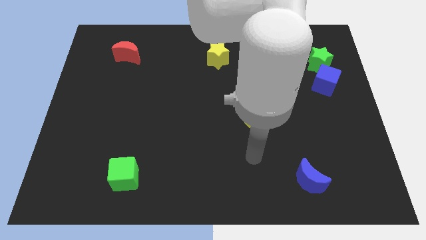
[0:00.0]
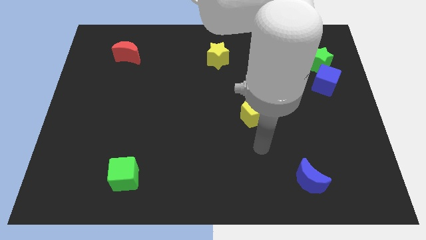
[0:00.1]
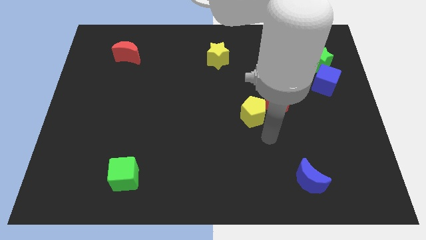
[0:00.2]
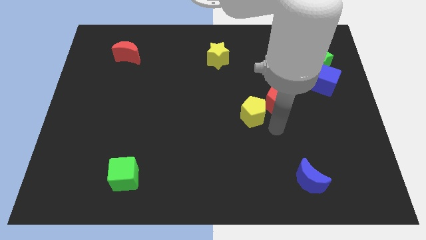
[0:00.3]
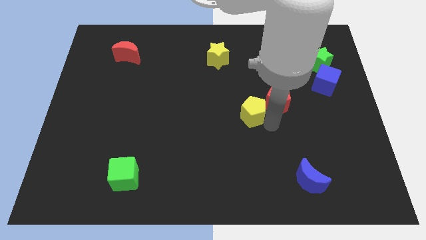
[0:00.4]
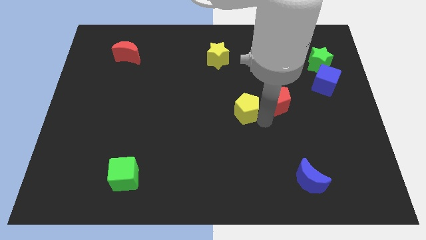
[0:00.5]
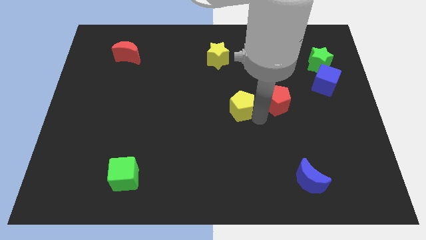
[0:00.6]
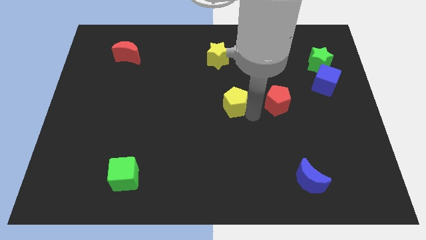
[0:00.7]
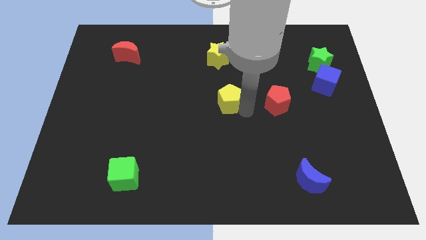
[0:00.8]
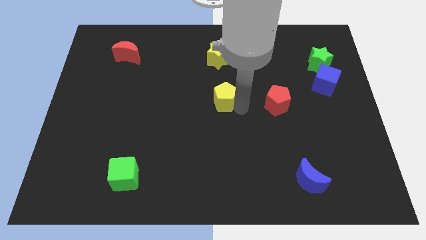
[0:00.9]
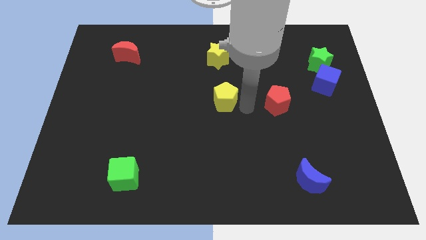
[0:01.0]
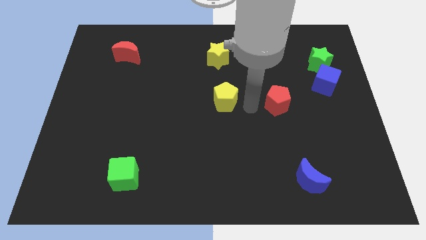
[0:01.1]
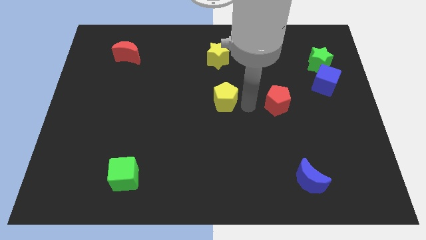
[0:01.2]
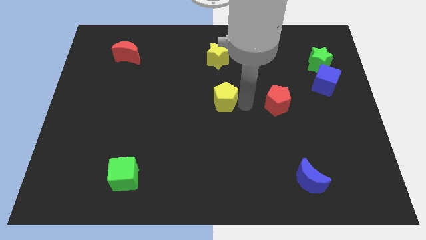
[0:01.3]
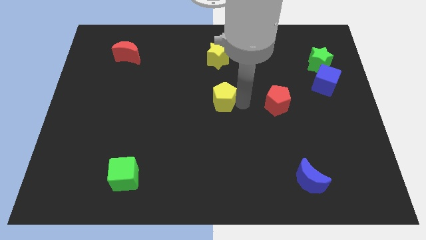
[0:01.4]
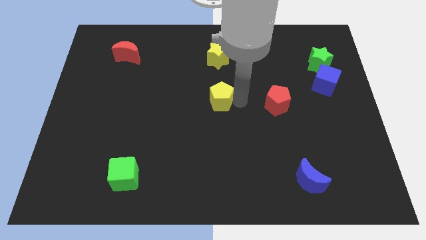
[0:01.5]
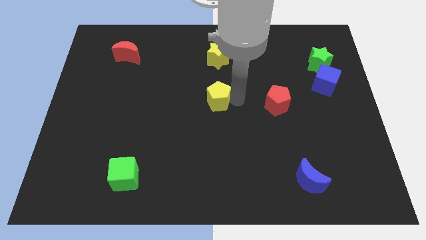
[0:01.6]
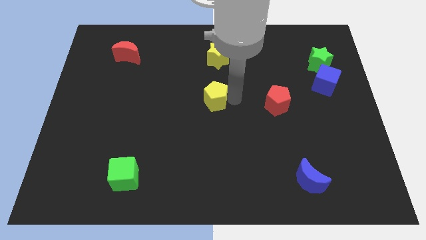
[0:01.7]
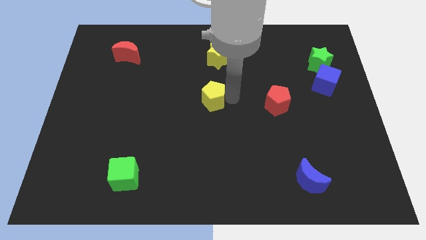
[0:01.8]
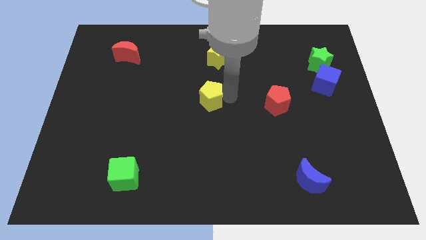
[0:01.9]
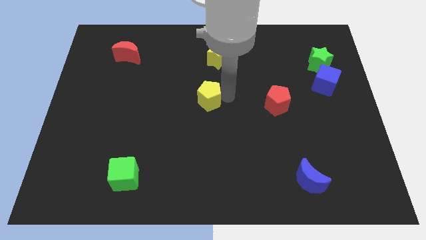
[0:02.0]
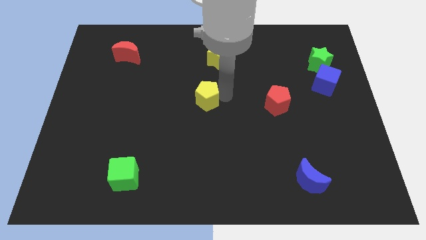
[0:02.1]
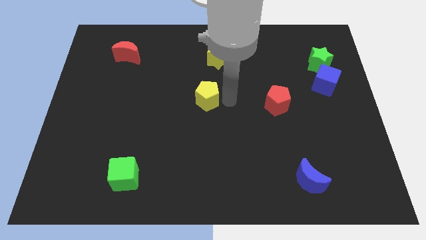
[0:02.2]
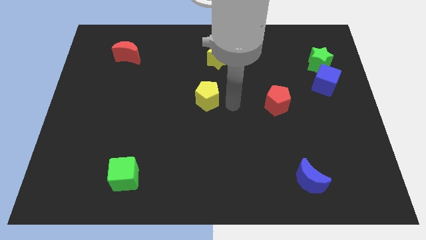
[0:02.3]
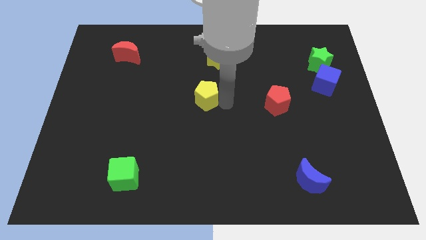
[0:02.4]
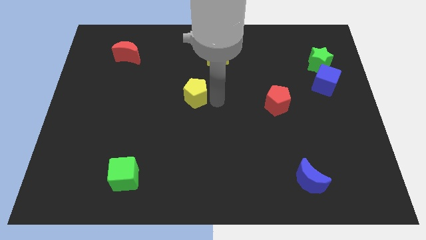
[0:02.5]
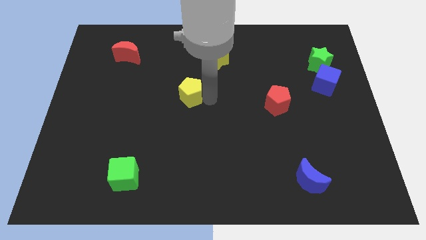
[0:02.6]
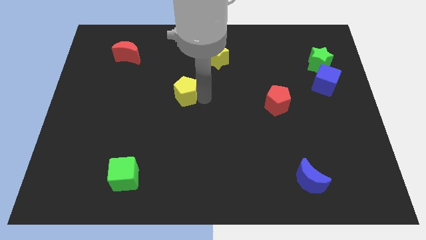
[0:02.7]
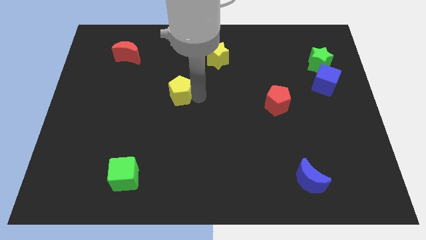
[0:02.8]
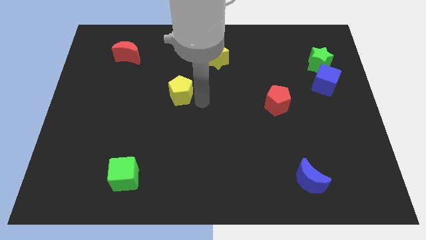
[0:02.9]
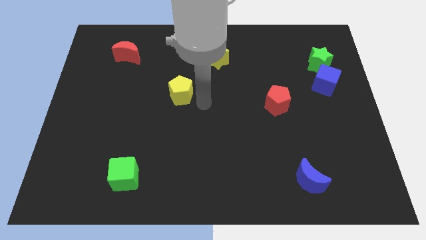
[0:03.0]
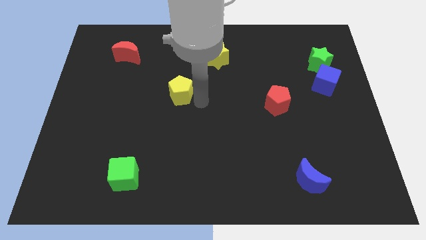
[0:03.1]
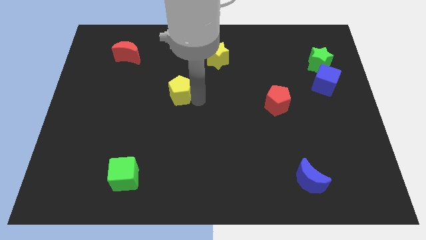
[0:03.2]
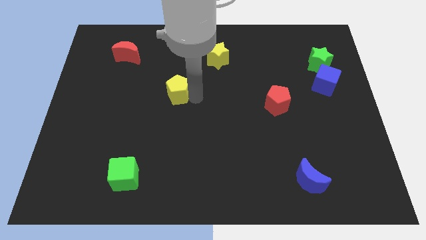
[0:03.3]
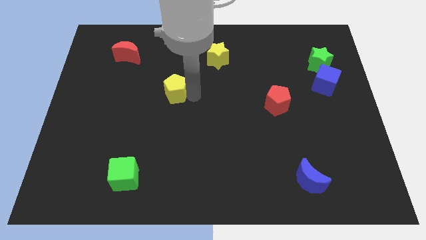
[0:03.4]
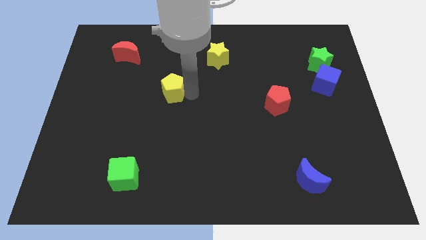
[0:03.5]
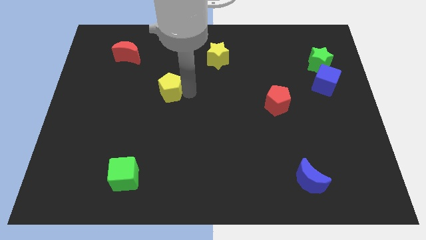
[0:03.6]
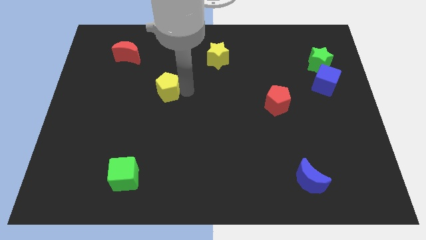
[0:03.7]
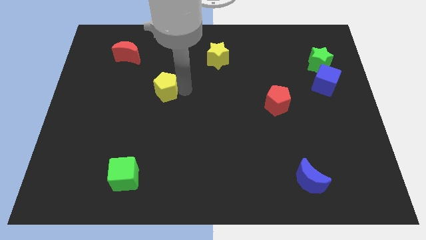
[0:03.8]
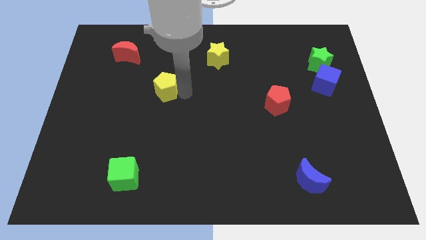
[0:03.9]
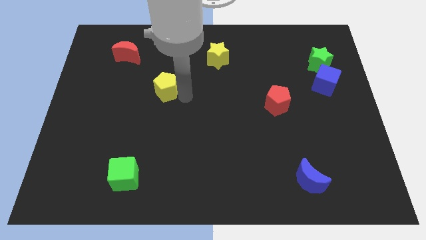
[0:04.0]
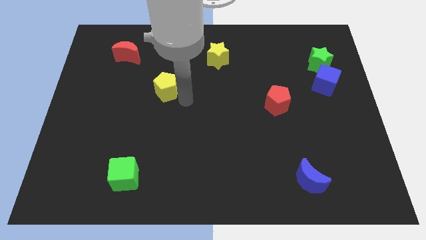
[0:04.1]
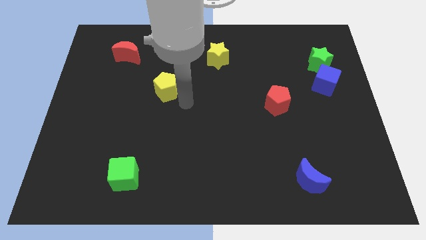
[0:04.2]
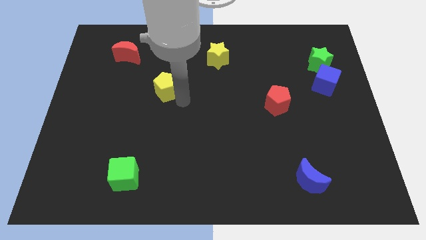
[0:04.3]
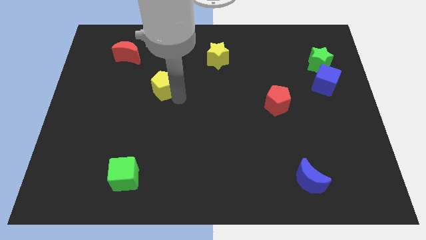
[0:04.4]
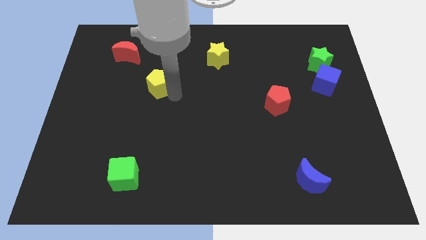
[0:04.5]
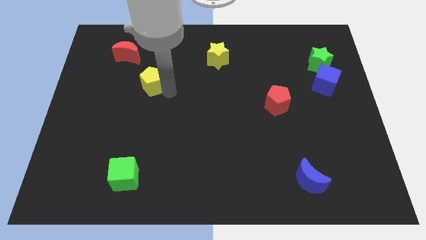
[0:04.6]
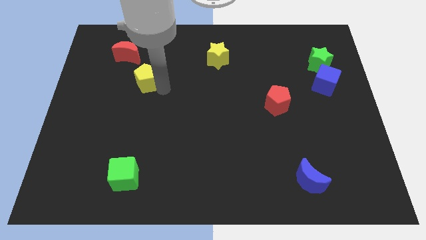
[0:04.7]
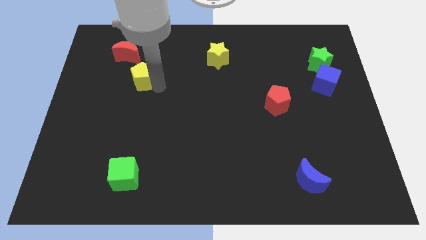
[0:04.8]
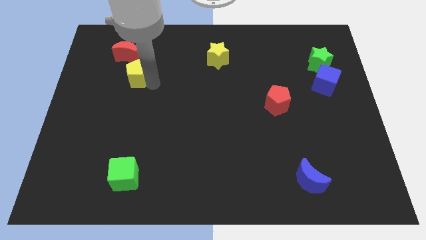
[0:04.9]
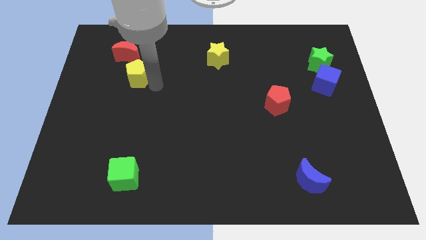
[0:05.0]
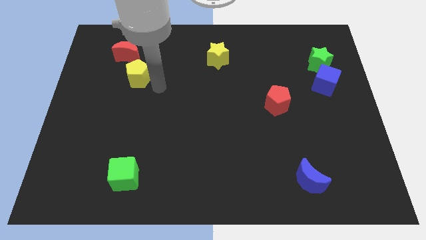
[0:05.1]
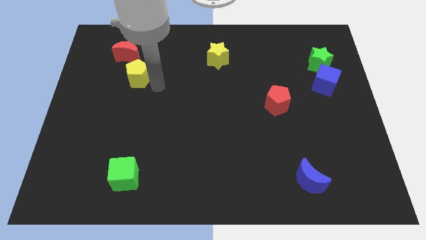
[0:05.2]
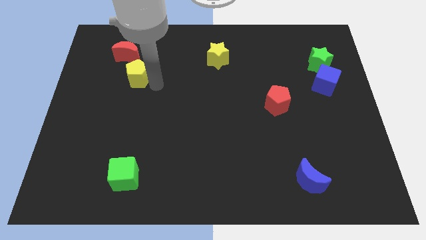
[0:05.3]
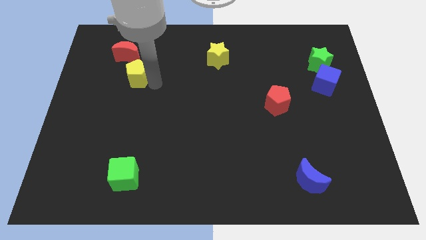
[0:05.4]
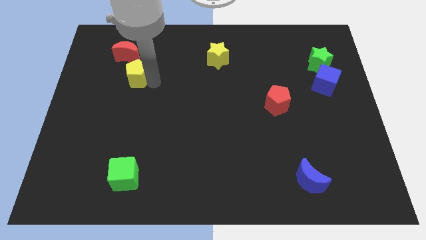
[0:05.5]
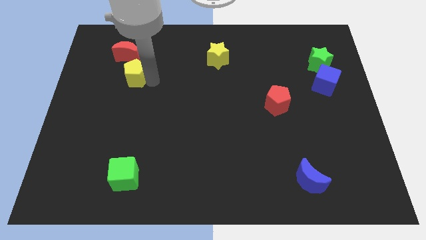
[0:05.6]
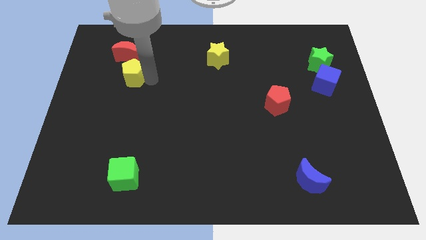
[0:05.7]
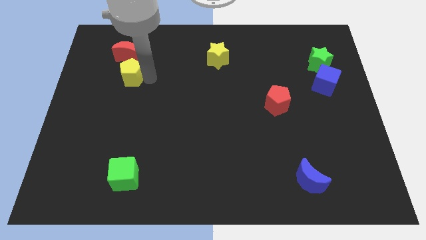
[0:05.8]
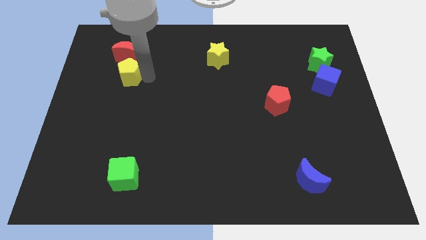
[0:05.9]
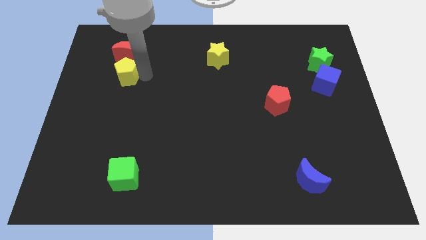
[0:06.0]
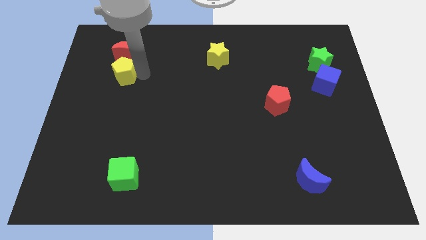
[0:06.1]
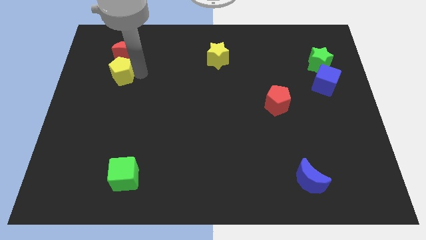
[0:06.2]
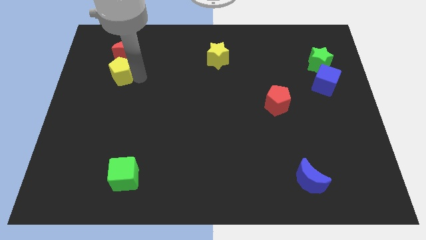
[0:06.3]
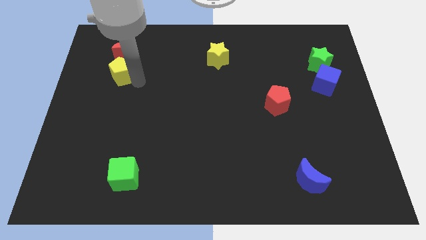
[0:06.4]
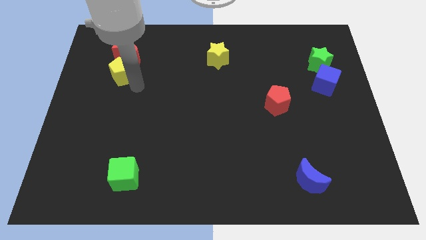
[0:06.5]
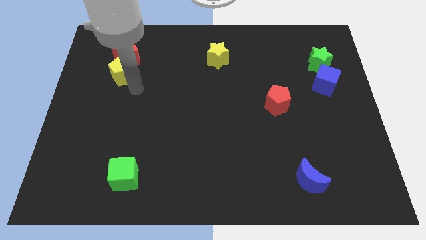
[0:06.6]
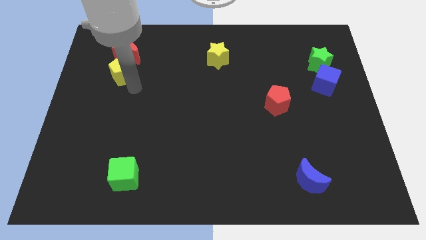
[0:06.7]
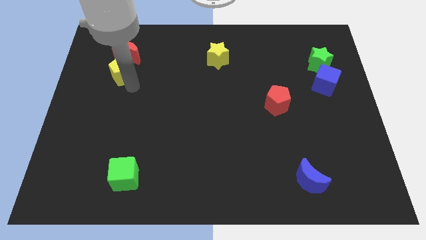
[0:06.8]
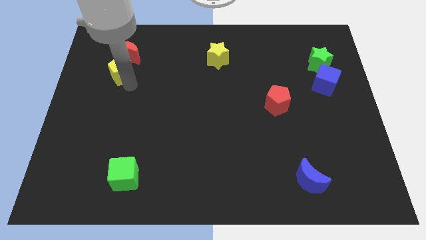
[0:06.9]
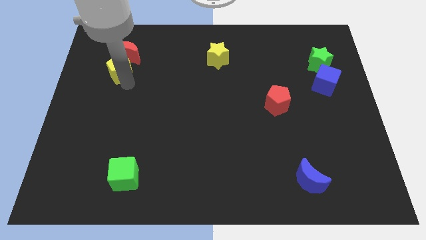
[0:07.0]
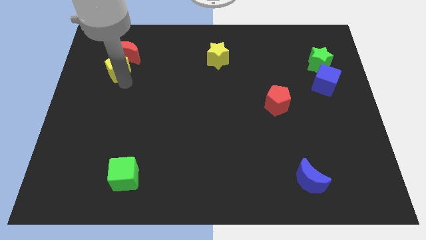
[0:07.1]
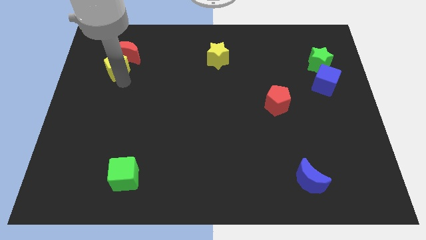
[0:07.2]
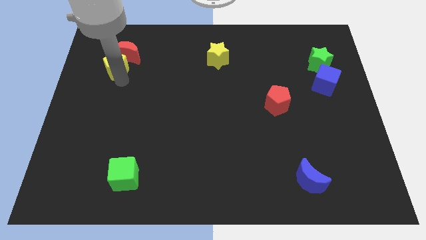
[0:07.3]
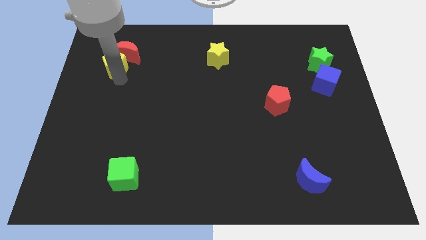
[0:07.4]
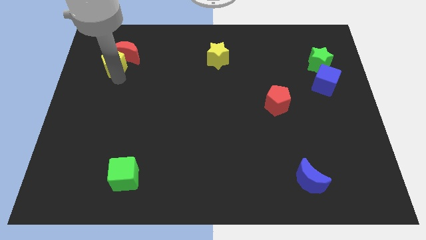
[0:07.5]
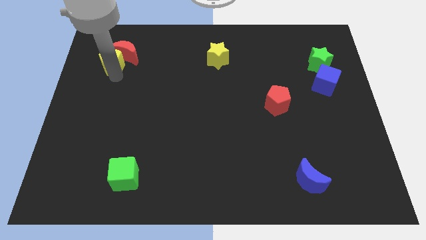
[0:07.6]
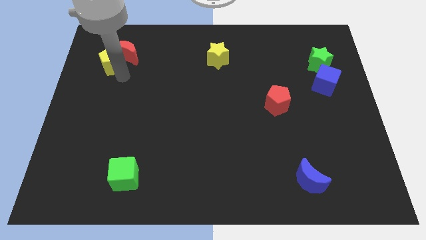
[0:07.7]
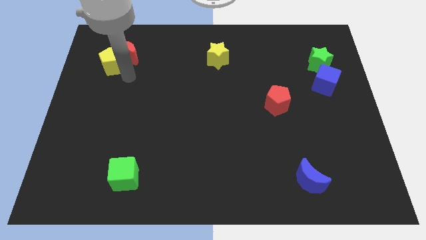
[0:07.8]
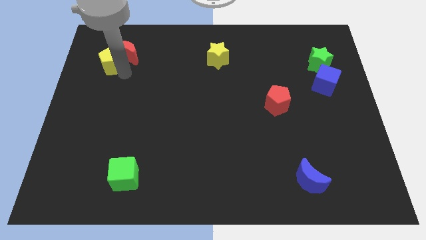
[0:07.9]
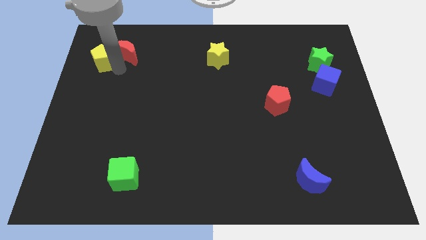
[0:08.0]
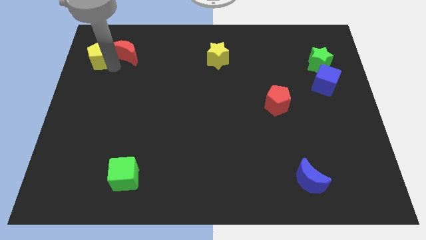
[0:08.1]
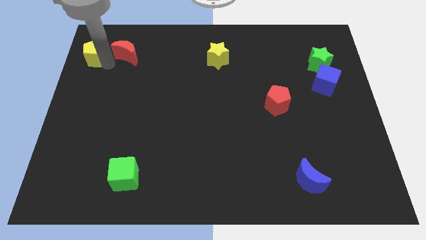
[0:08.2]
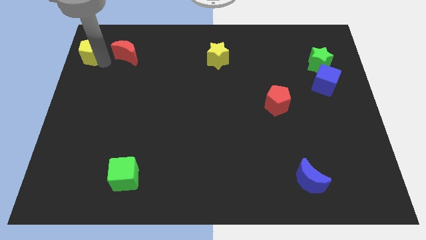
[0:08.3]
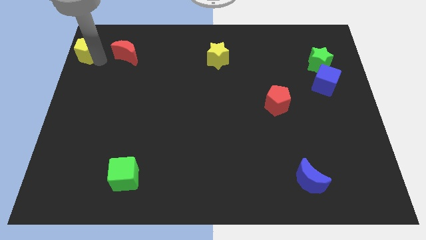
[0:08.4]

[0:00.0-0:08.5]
put the yellow pentagon to the top left of the board
